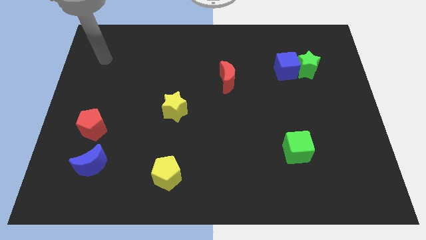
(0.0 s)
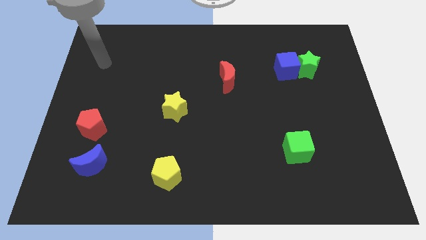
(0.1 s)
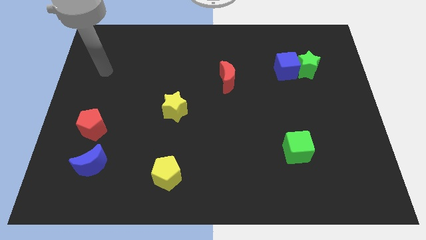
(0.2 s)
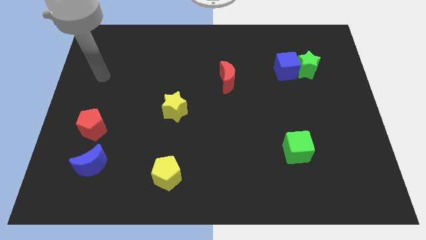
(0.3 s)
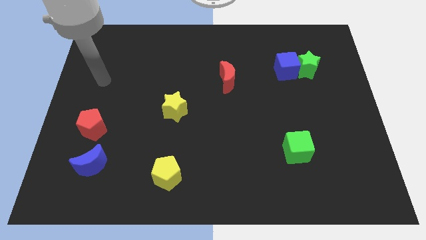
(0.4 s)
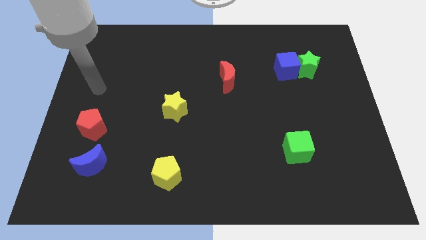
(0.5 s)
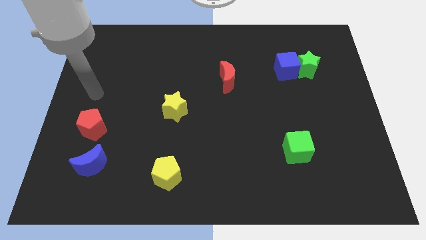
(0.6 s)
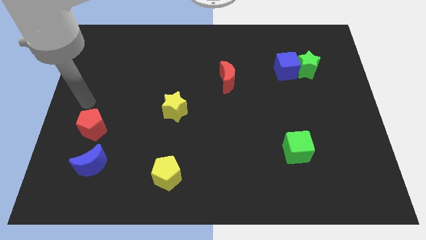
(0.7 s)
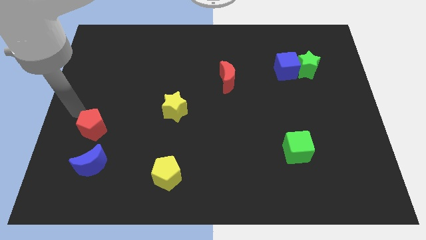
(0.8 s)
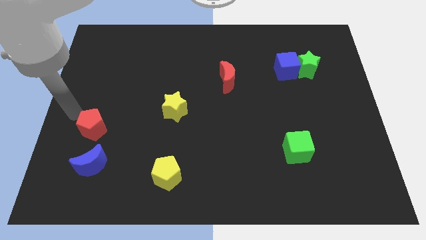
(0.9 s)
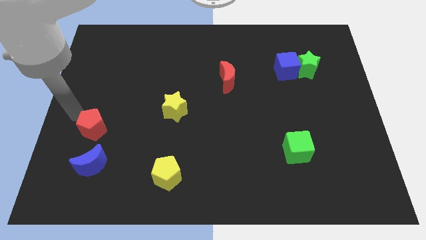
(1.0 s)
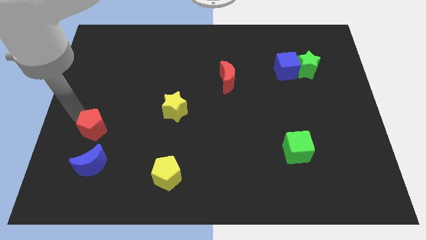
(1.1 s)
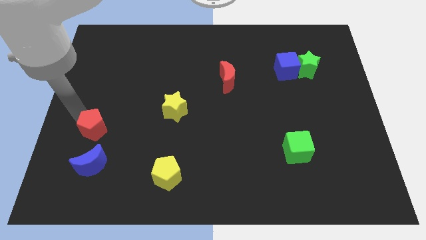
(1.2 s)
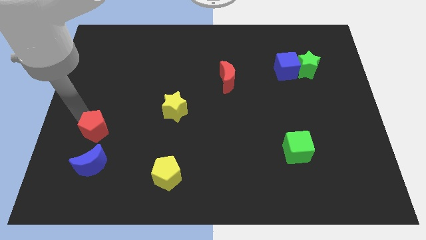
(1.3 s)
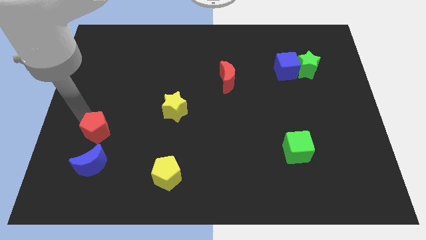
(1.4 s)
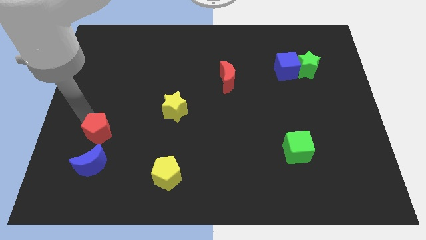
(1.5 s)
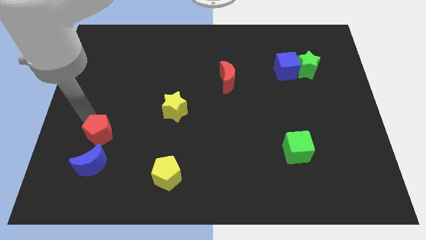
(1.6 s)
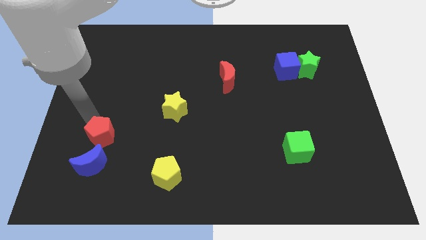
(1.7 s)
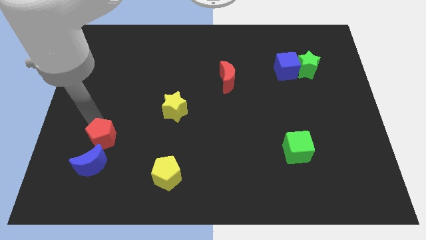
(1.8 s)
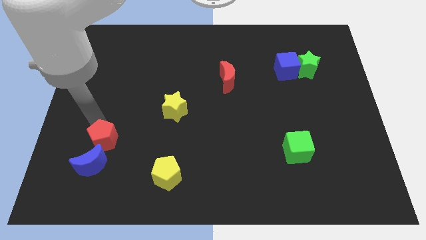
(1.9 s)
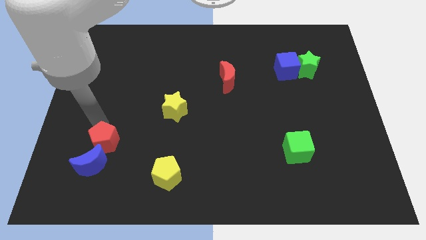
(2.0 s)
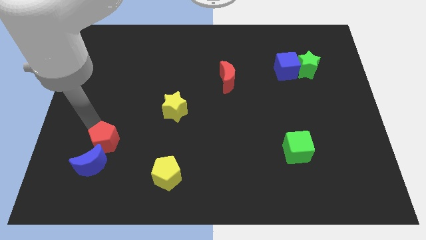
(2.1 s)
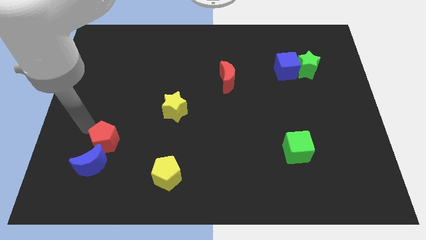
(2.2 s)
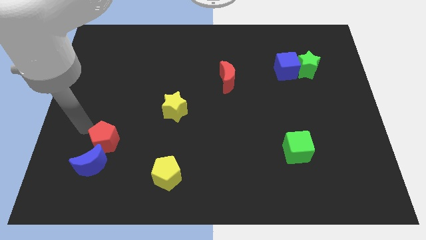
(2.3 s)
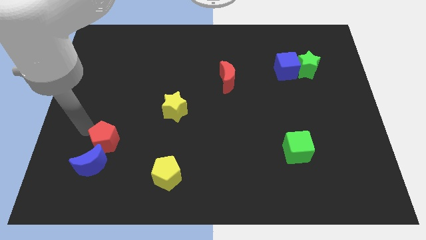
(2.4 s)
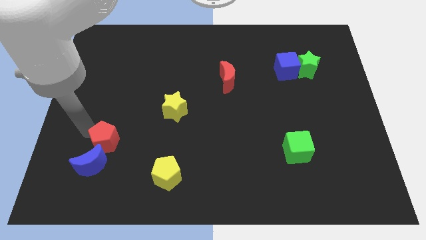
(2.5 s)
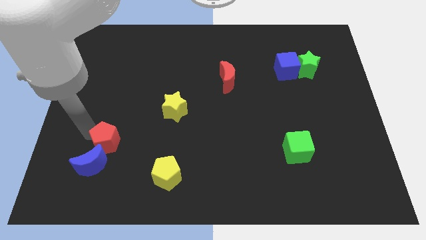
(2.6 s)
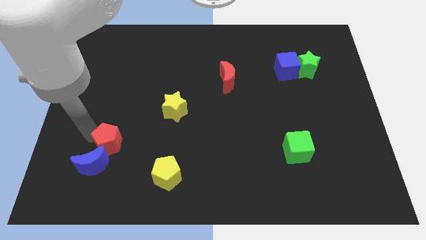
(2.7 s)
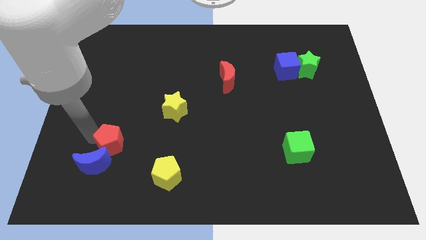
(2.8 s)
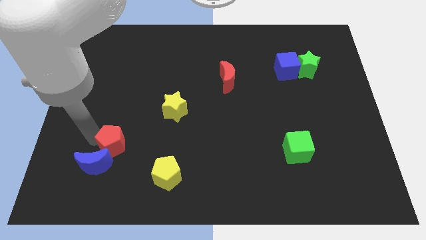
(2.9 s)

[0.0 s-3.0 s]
slightly move the red pentagon downwards and right diagonally

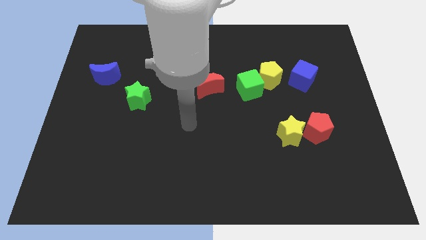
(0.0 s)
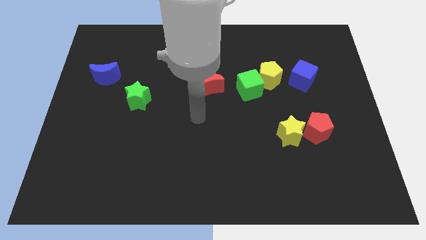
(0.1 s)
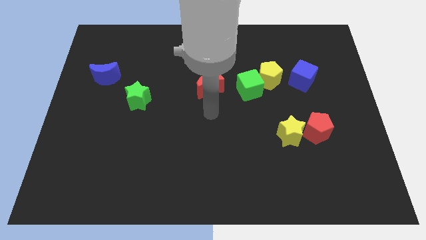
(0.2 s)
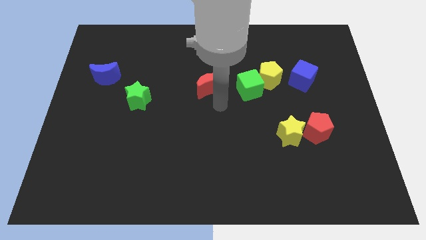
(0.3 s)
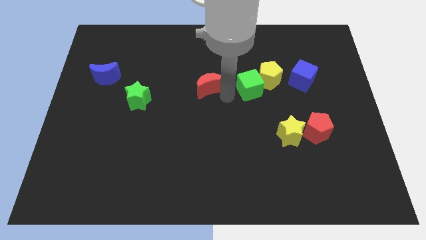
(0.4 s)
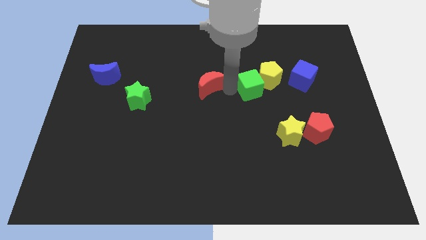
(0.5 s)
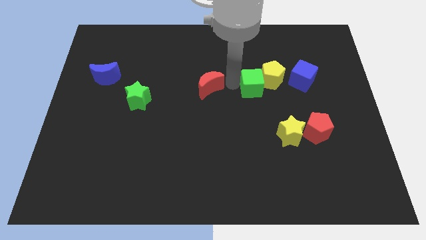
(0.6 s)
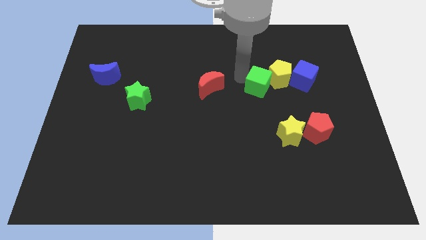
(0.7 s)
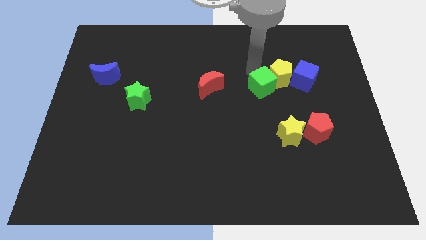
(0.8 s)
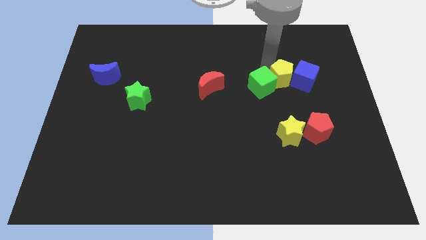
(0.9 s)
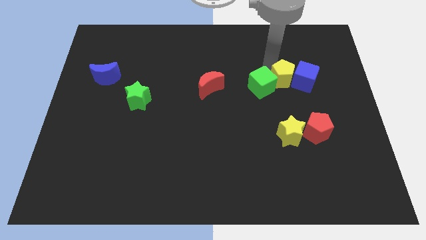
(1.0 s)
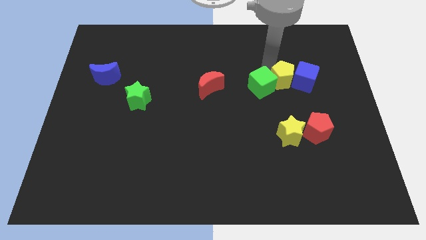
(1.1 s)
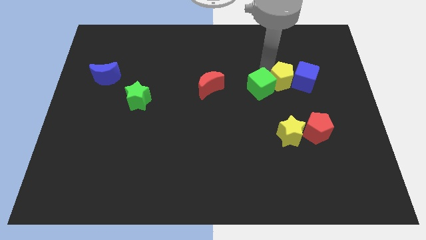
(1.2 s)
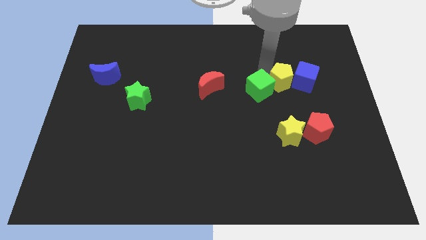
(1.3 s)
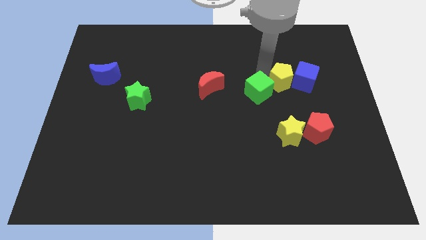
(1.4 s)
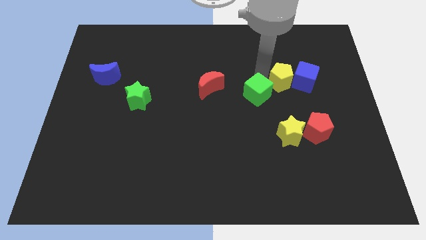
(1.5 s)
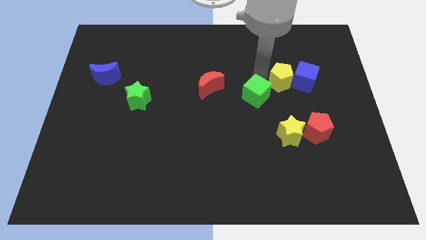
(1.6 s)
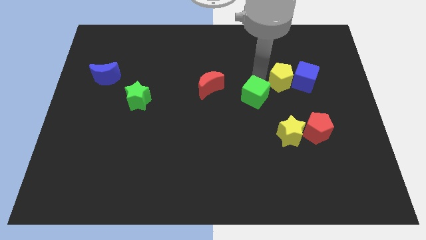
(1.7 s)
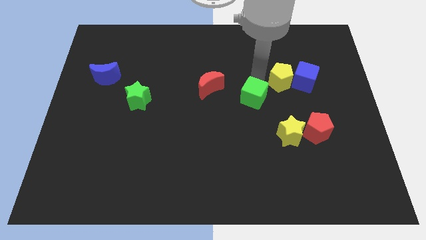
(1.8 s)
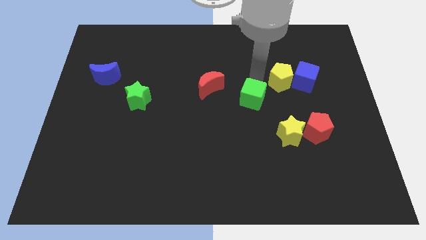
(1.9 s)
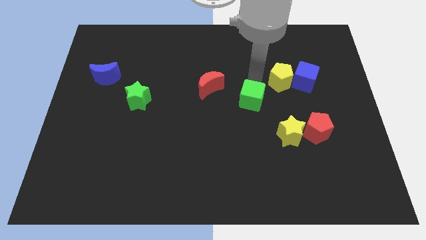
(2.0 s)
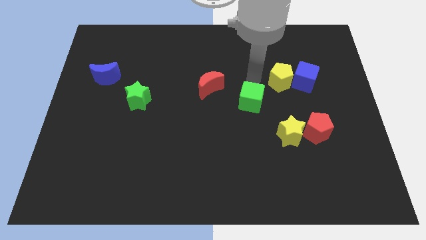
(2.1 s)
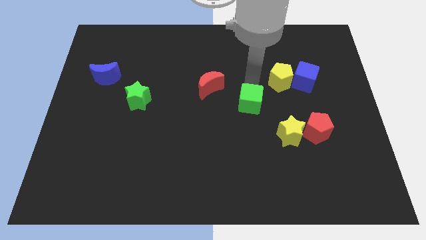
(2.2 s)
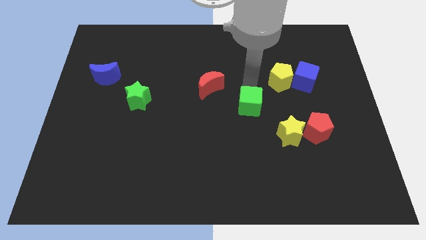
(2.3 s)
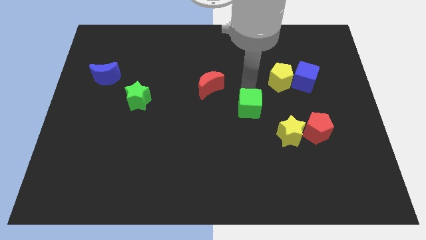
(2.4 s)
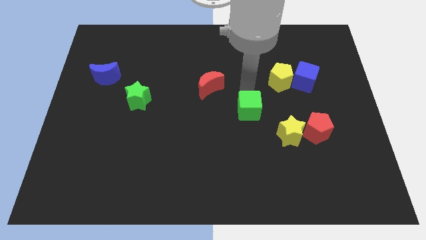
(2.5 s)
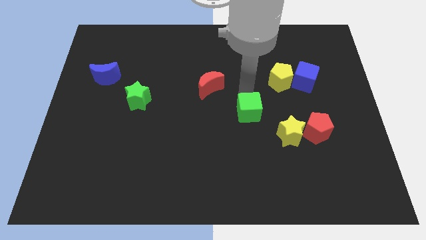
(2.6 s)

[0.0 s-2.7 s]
slightly move the green cube down

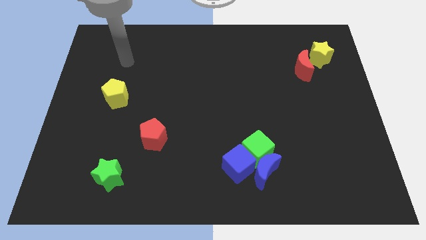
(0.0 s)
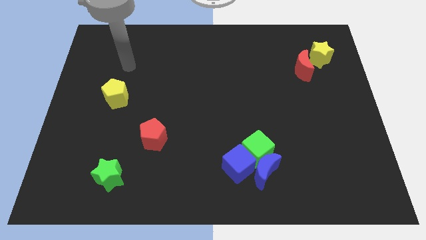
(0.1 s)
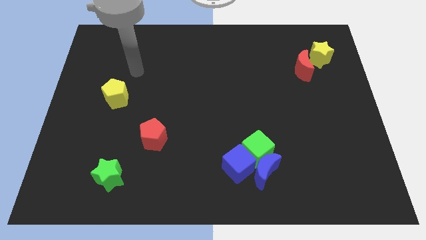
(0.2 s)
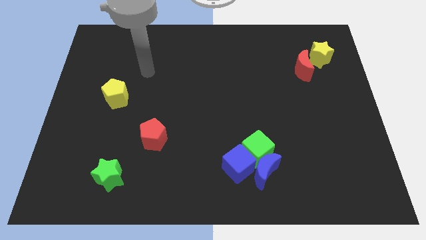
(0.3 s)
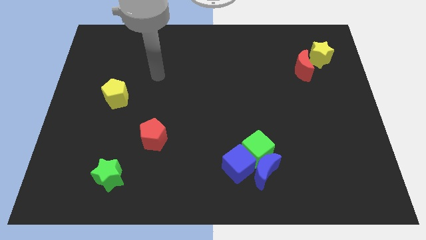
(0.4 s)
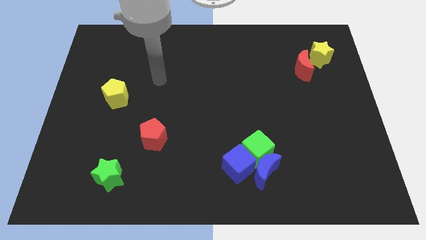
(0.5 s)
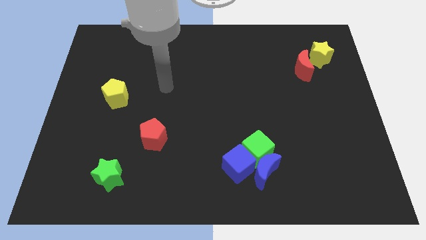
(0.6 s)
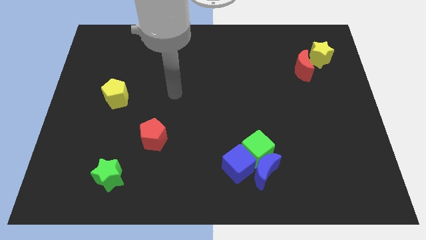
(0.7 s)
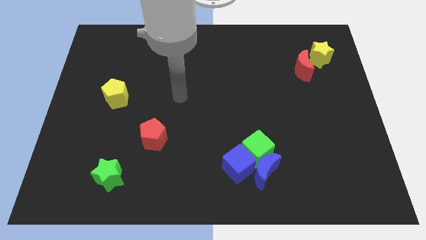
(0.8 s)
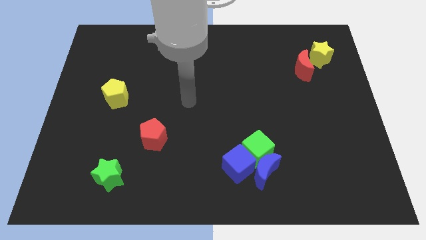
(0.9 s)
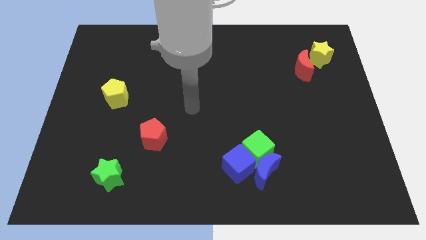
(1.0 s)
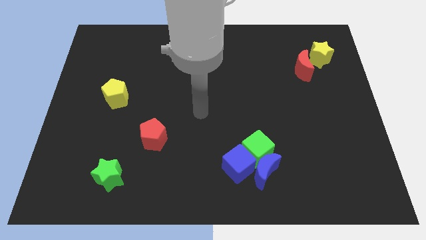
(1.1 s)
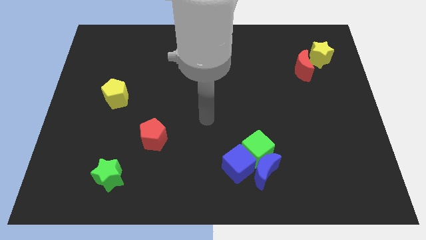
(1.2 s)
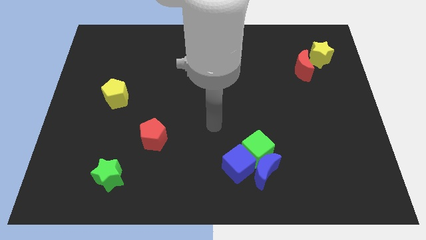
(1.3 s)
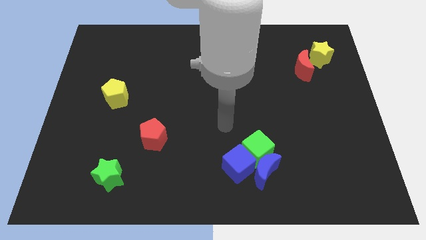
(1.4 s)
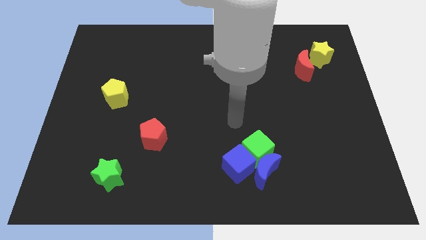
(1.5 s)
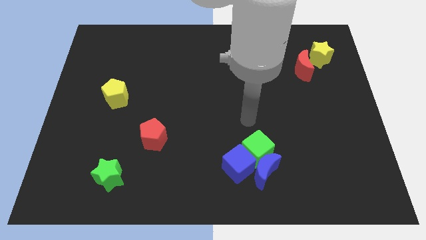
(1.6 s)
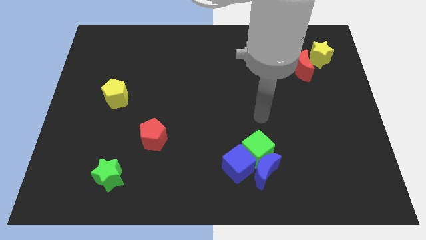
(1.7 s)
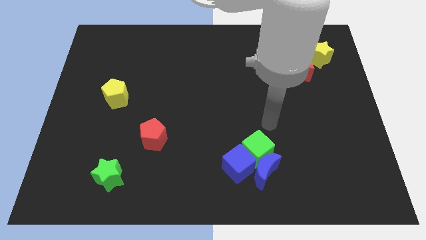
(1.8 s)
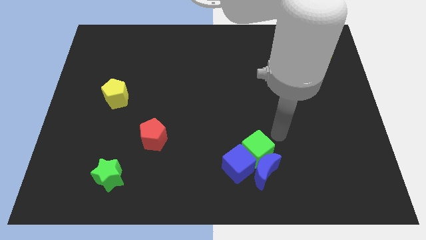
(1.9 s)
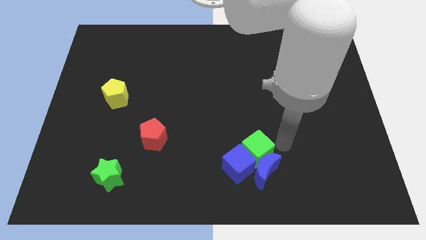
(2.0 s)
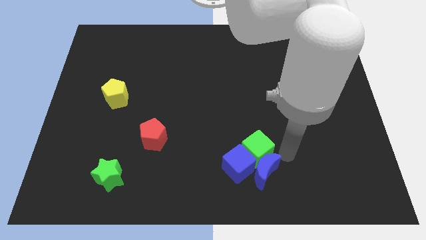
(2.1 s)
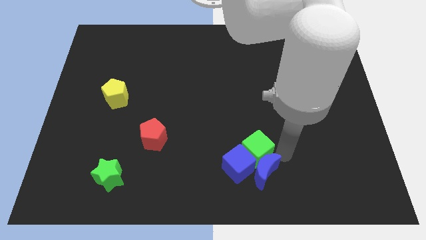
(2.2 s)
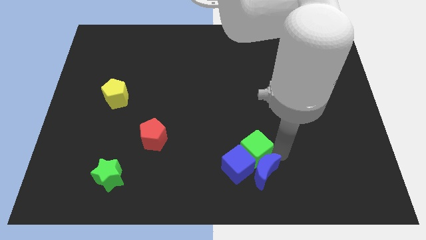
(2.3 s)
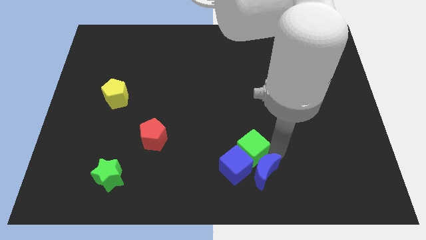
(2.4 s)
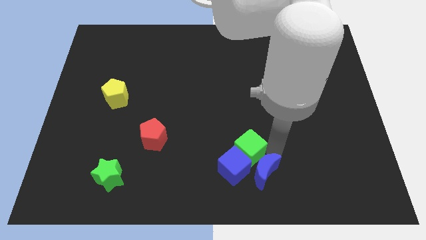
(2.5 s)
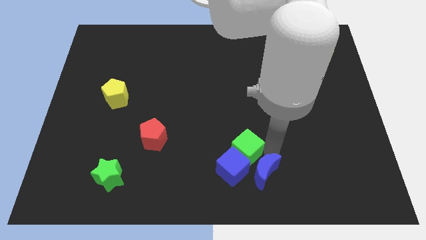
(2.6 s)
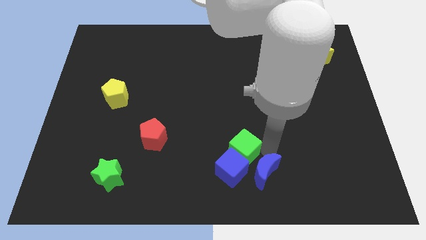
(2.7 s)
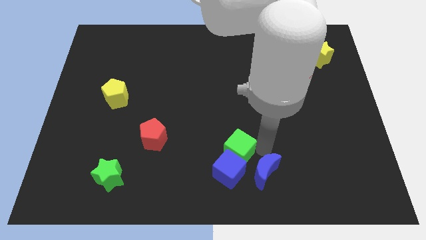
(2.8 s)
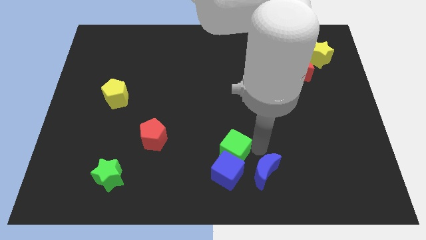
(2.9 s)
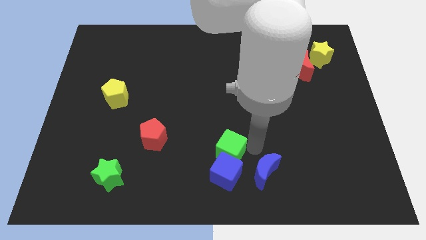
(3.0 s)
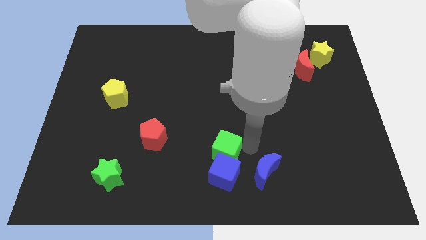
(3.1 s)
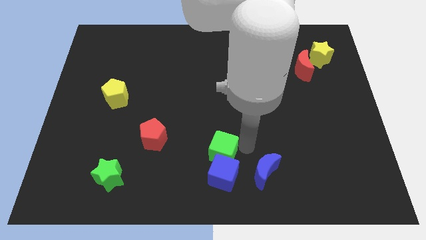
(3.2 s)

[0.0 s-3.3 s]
slightly move the green cube to the left
